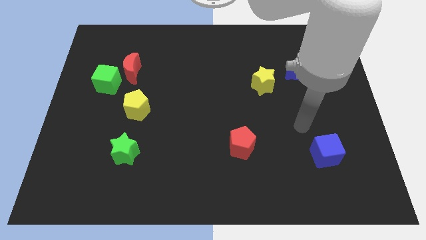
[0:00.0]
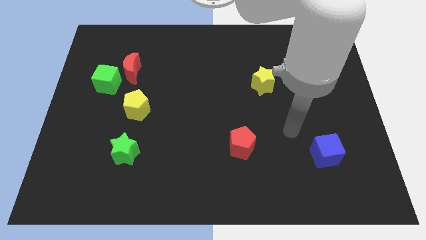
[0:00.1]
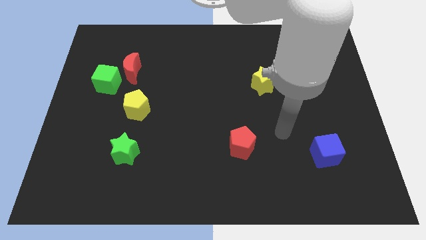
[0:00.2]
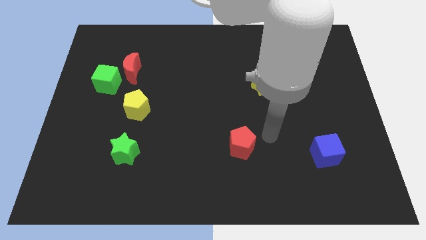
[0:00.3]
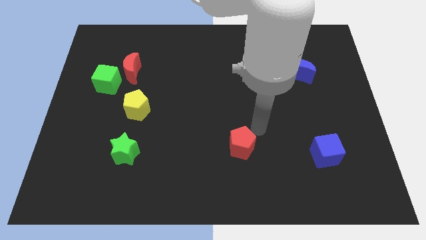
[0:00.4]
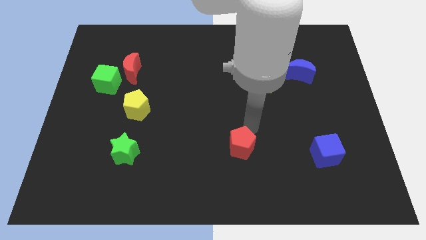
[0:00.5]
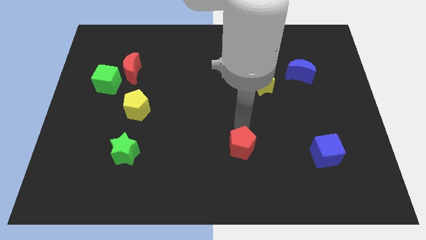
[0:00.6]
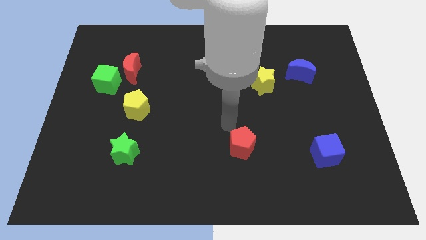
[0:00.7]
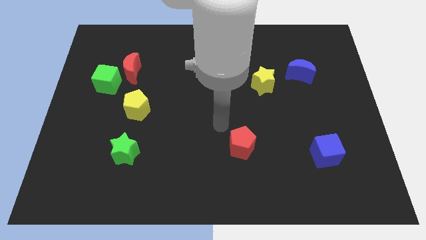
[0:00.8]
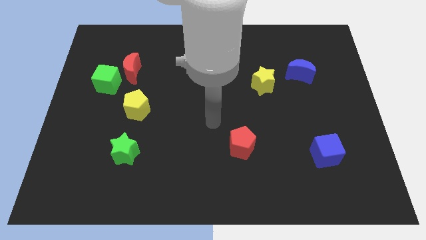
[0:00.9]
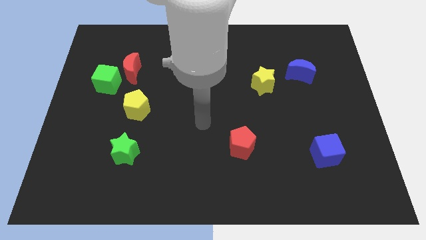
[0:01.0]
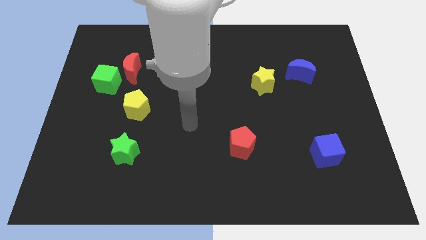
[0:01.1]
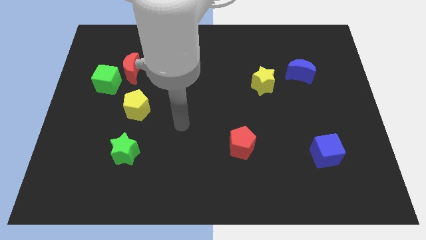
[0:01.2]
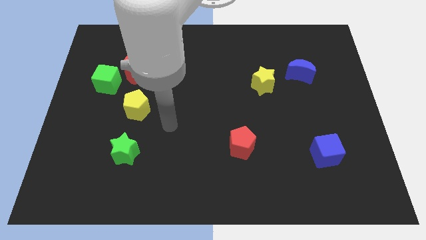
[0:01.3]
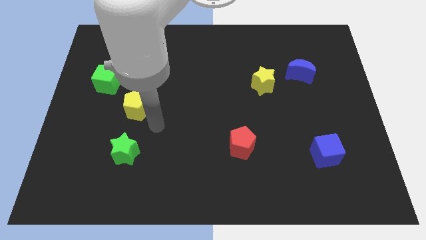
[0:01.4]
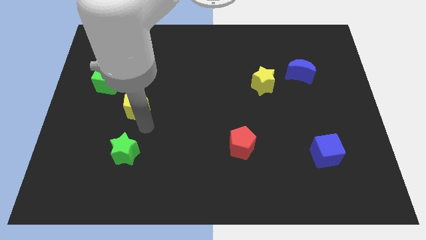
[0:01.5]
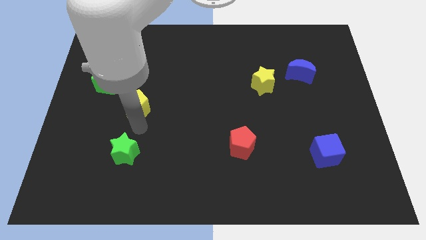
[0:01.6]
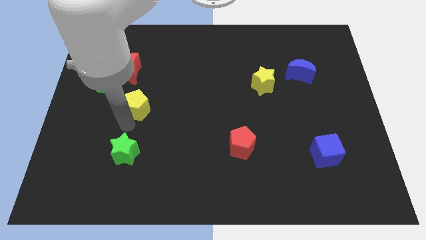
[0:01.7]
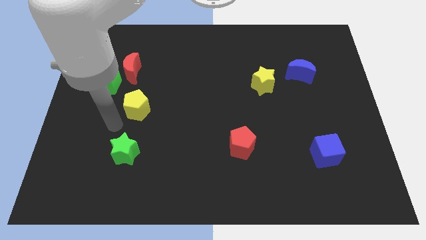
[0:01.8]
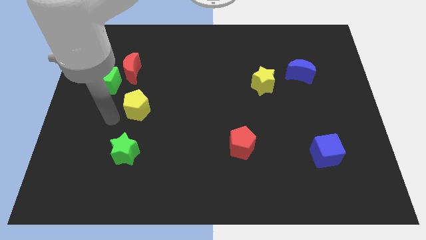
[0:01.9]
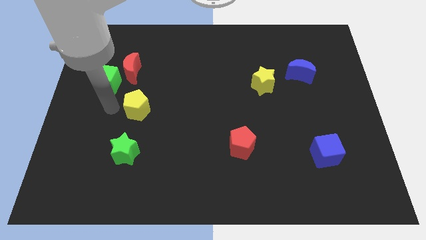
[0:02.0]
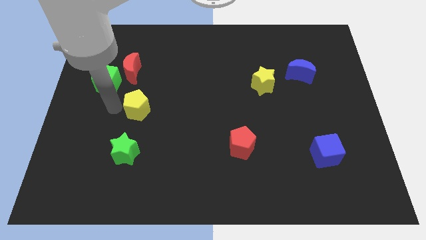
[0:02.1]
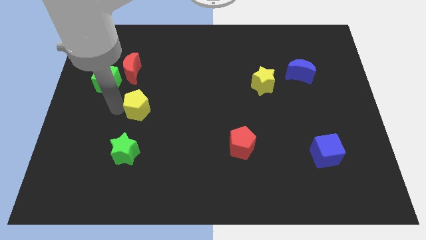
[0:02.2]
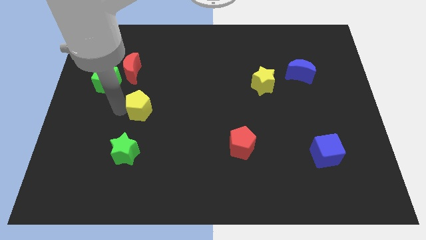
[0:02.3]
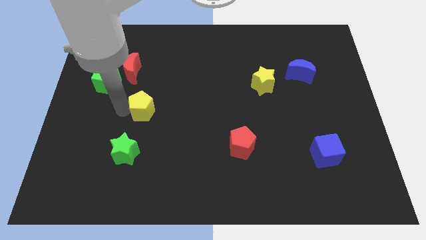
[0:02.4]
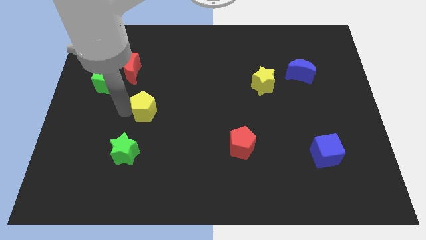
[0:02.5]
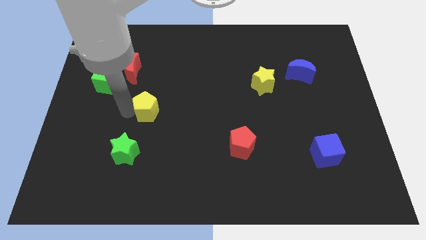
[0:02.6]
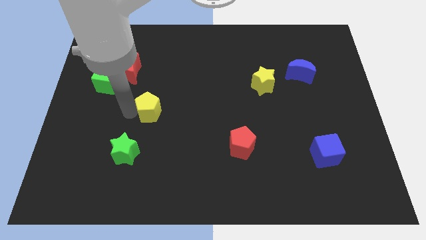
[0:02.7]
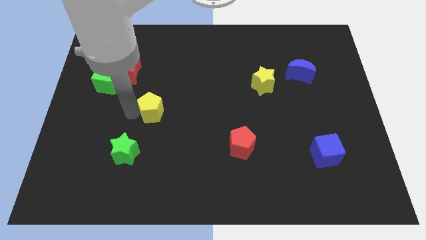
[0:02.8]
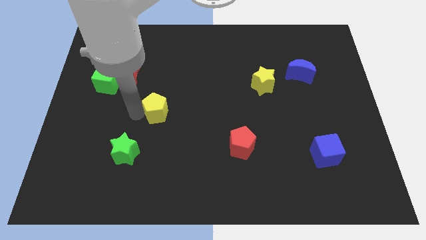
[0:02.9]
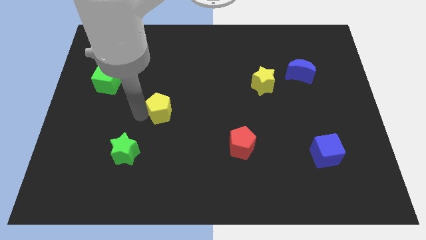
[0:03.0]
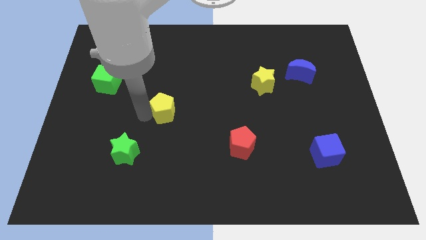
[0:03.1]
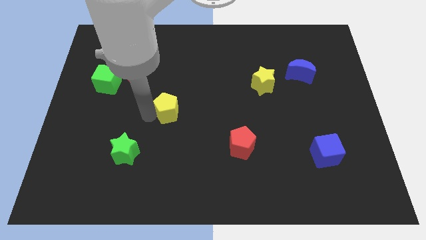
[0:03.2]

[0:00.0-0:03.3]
move the yellow pentagon a bit to the right

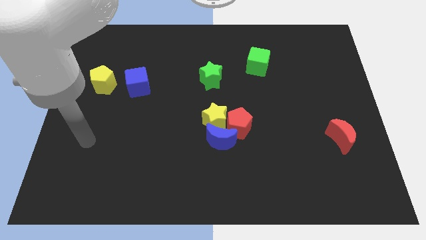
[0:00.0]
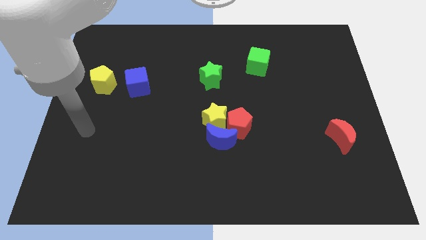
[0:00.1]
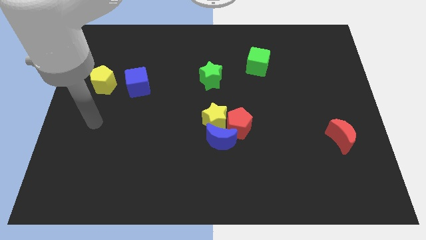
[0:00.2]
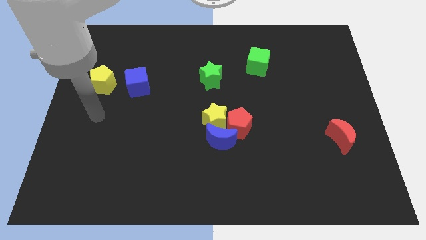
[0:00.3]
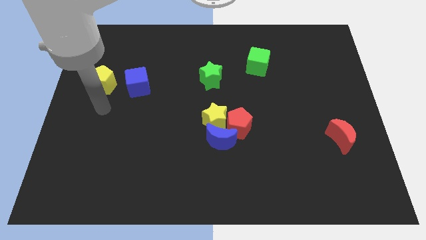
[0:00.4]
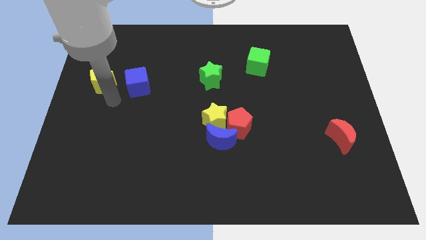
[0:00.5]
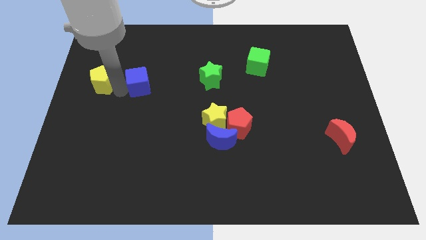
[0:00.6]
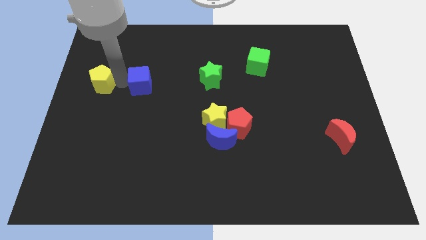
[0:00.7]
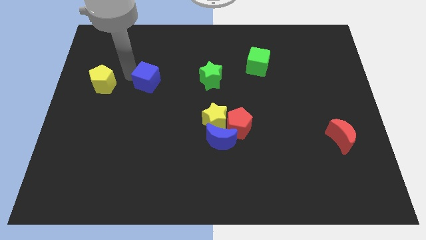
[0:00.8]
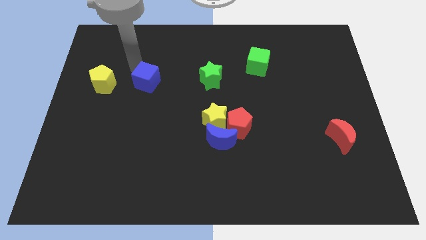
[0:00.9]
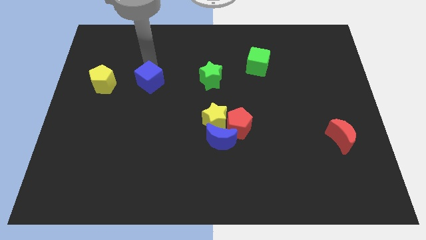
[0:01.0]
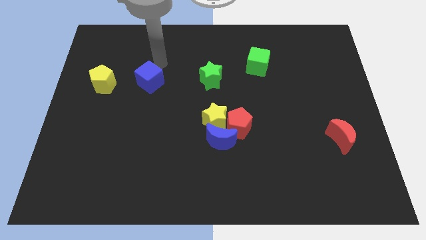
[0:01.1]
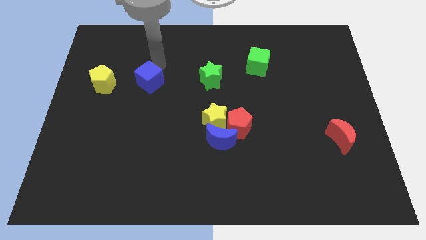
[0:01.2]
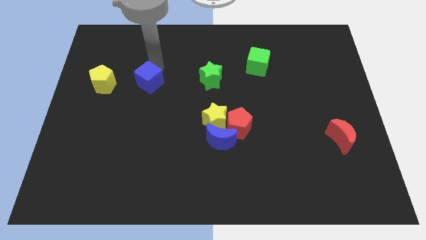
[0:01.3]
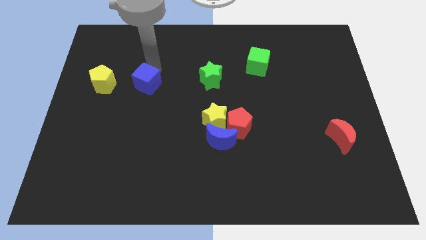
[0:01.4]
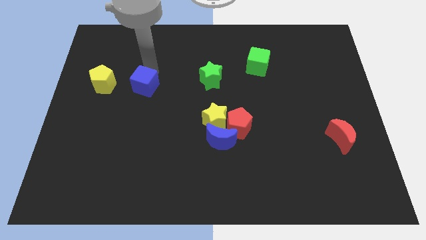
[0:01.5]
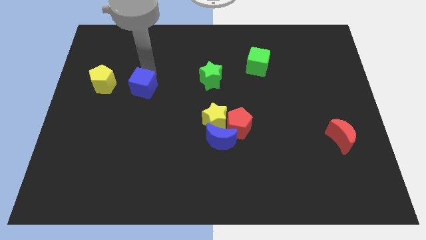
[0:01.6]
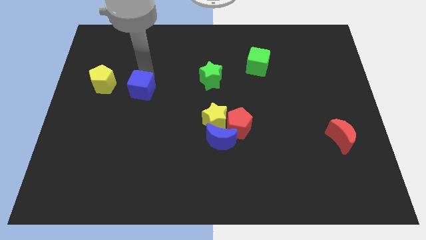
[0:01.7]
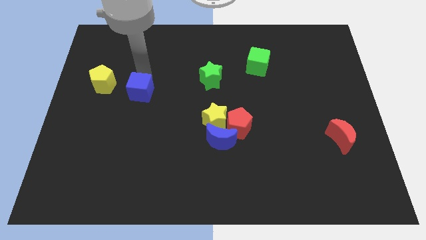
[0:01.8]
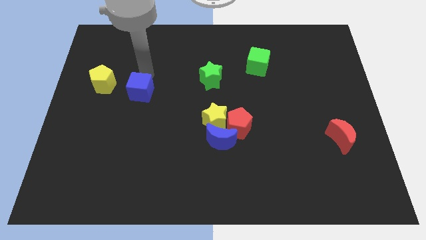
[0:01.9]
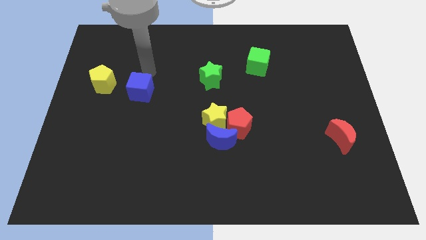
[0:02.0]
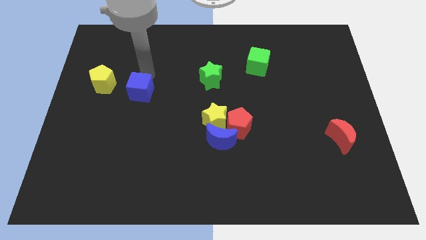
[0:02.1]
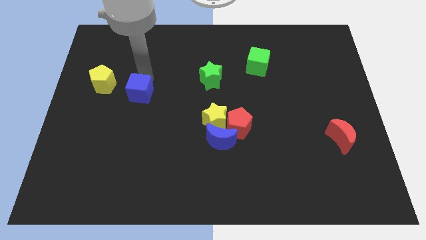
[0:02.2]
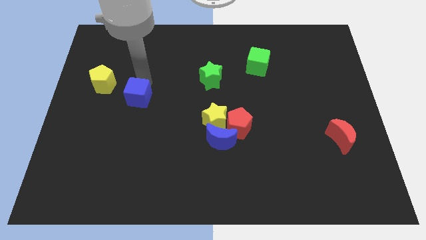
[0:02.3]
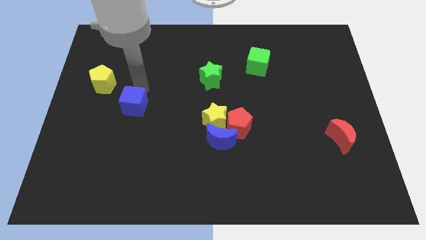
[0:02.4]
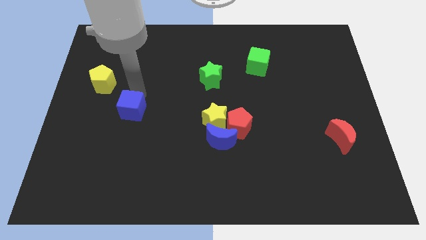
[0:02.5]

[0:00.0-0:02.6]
slide the blue cube downwards slightly

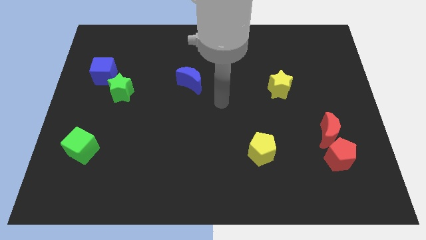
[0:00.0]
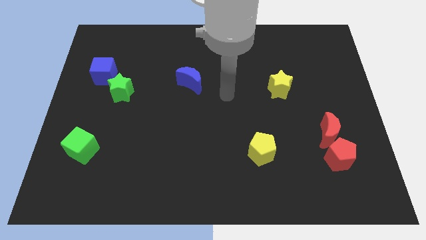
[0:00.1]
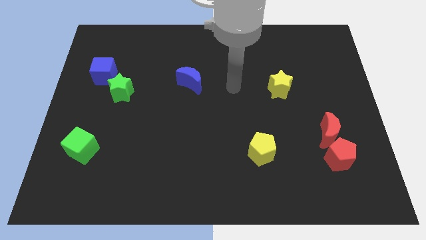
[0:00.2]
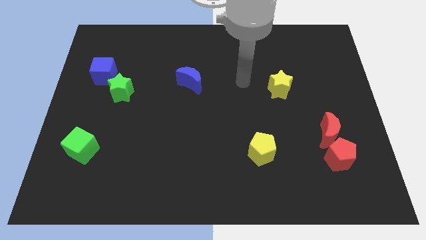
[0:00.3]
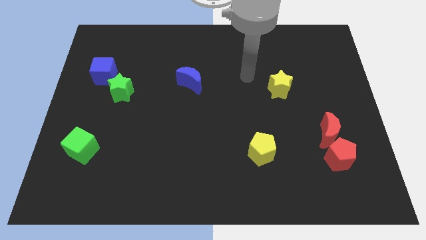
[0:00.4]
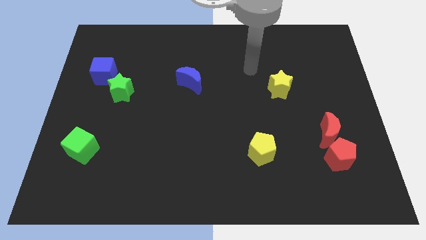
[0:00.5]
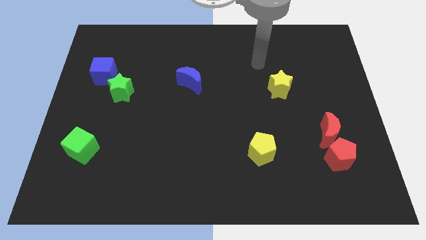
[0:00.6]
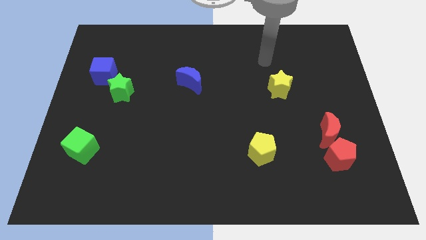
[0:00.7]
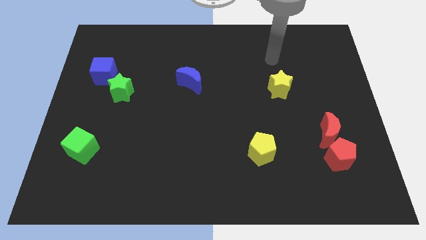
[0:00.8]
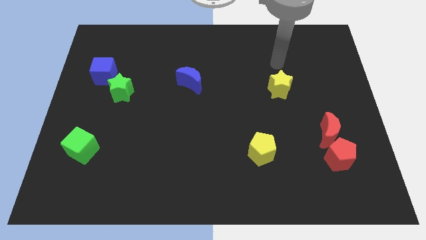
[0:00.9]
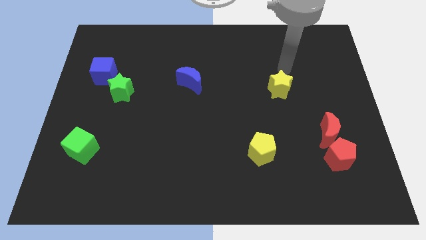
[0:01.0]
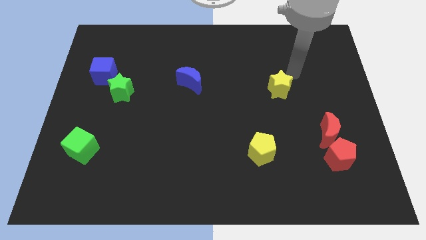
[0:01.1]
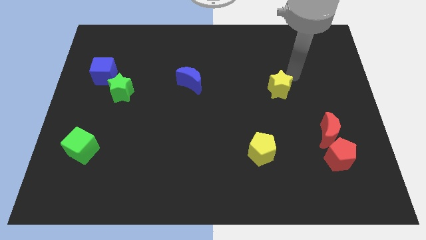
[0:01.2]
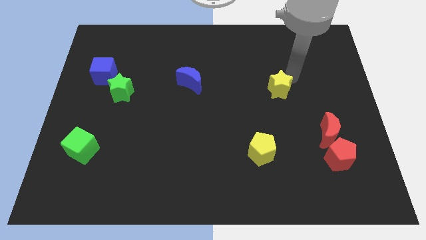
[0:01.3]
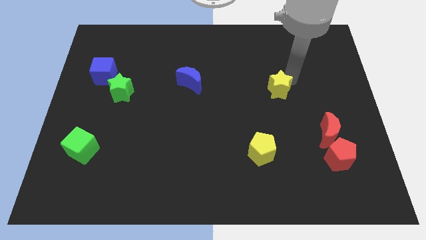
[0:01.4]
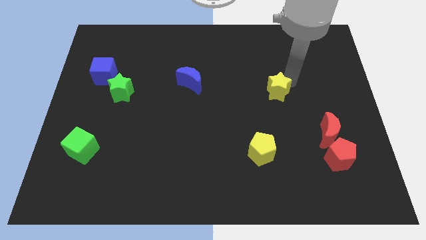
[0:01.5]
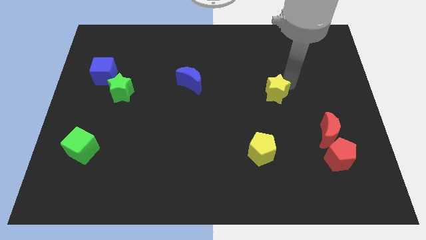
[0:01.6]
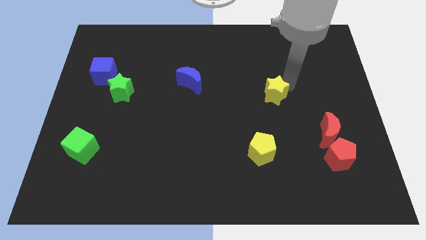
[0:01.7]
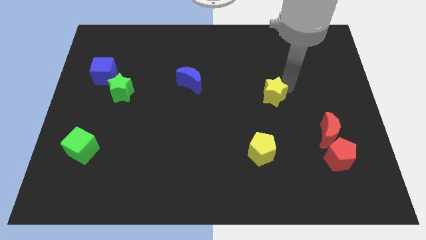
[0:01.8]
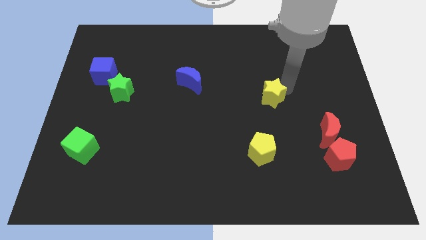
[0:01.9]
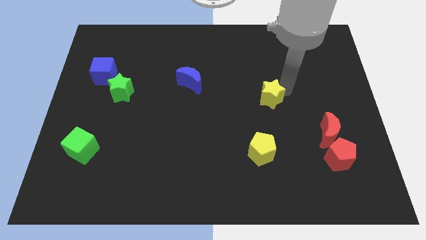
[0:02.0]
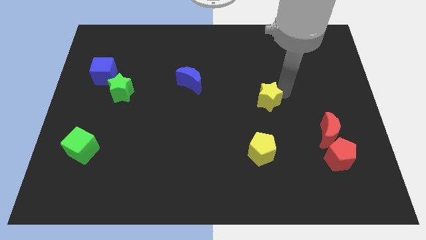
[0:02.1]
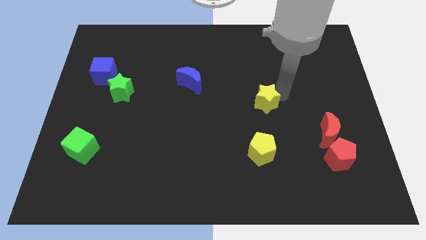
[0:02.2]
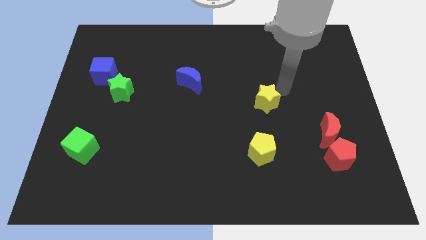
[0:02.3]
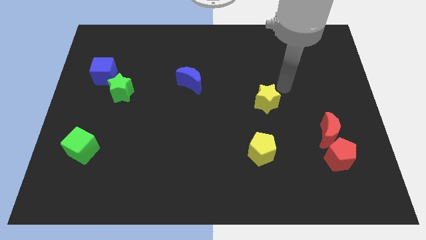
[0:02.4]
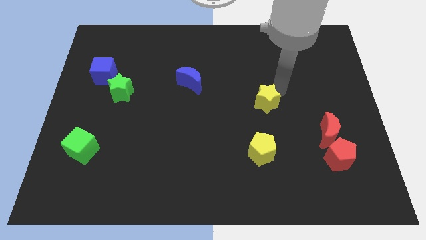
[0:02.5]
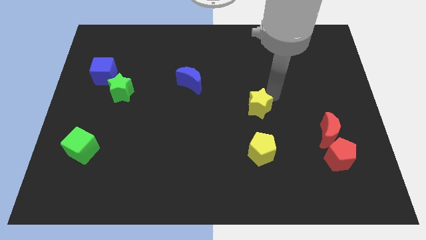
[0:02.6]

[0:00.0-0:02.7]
slightly slide the yellow star diagonally downwards and to the left
